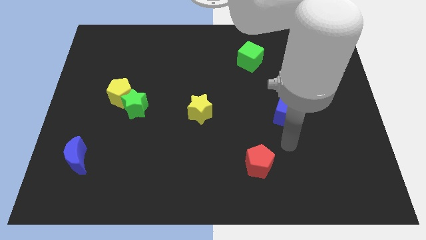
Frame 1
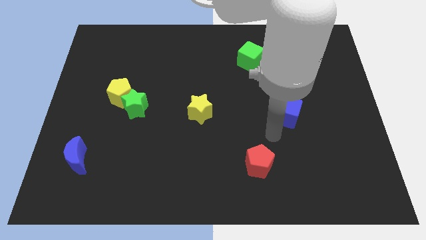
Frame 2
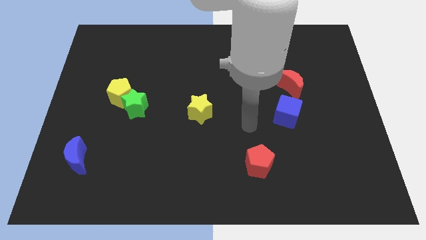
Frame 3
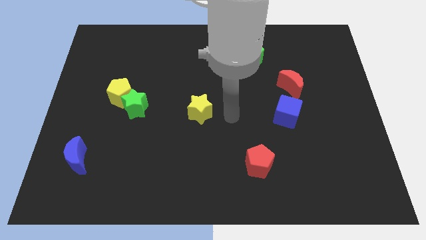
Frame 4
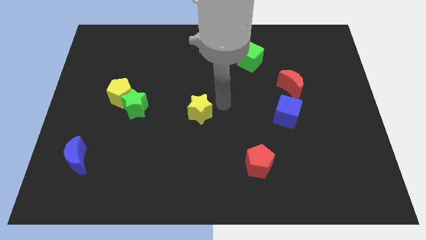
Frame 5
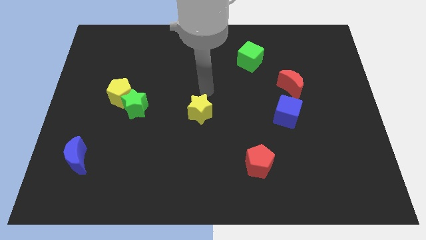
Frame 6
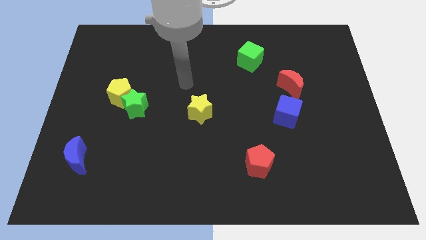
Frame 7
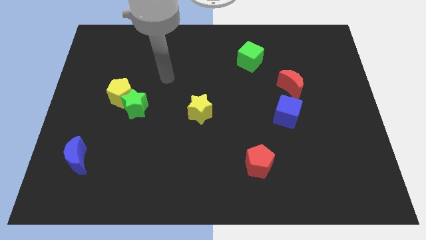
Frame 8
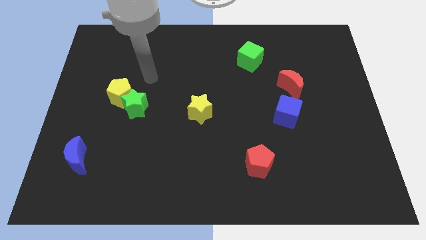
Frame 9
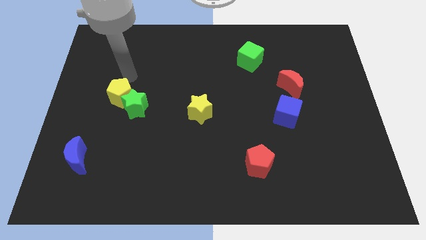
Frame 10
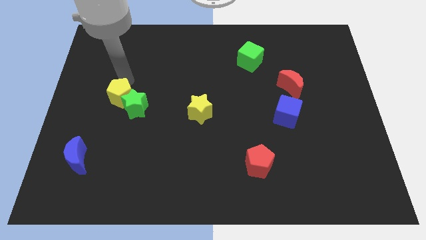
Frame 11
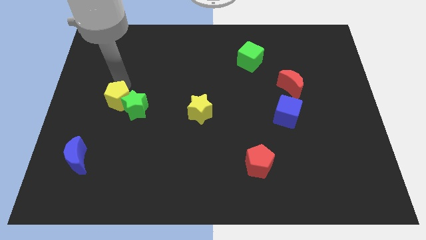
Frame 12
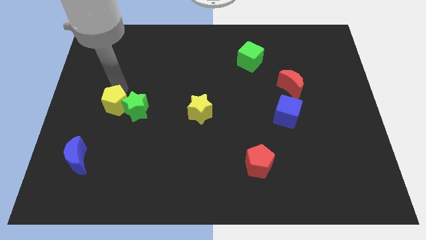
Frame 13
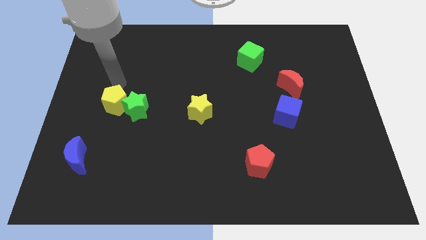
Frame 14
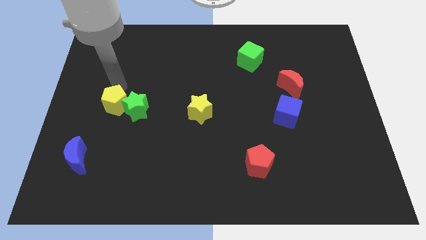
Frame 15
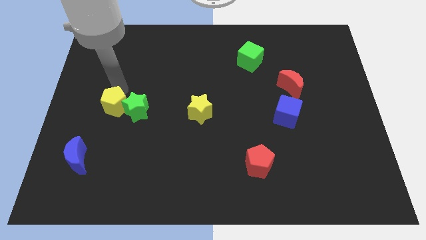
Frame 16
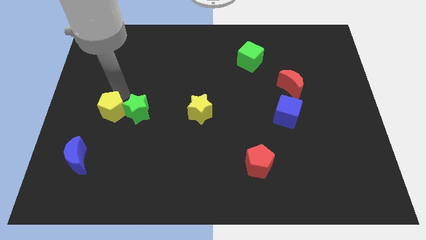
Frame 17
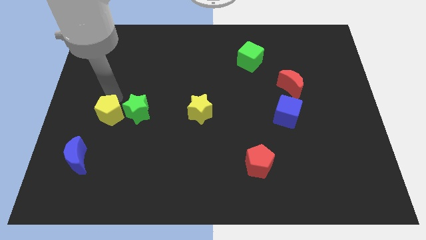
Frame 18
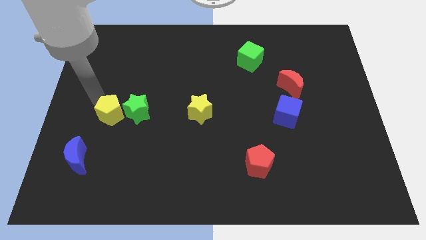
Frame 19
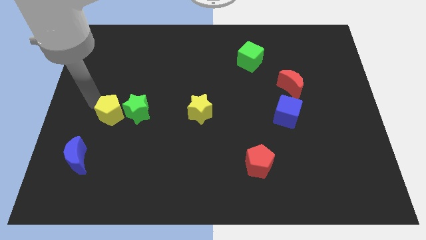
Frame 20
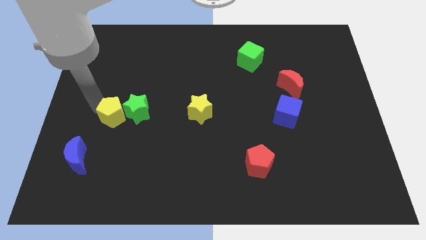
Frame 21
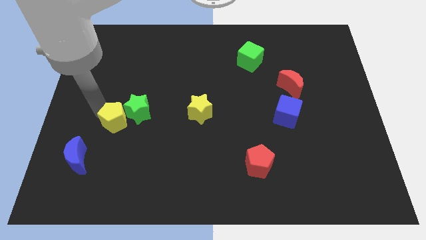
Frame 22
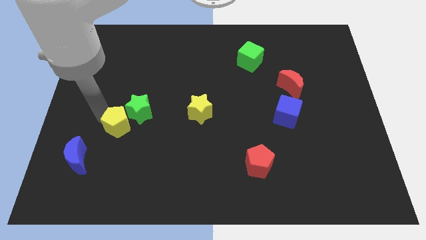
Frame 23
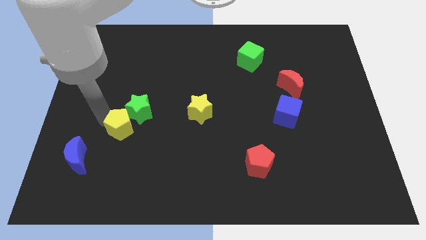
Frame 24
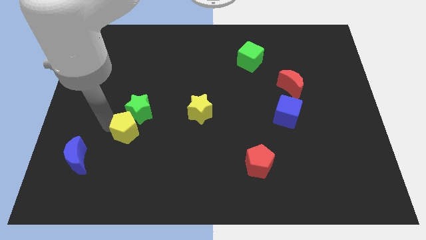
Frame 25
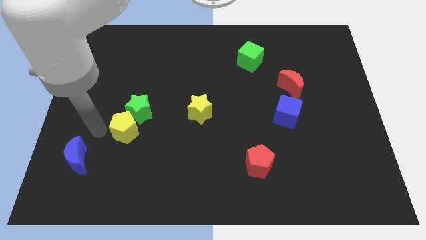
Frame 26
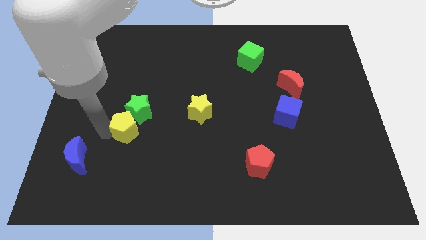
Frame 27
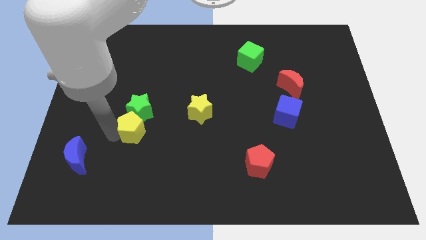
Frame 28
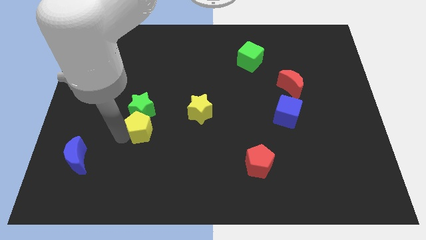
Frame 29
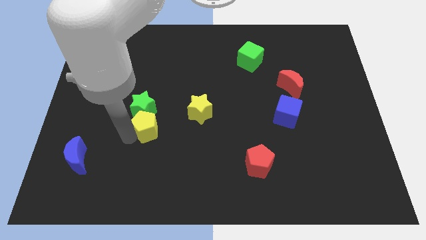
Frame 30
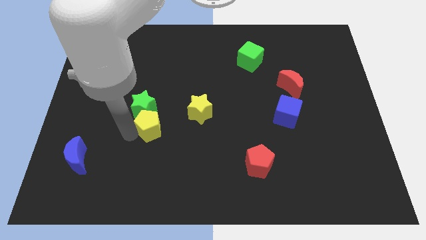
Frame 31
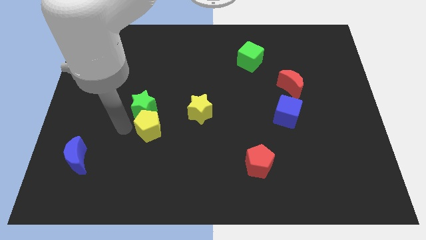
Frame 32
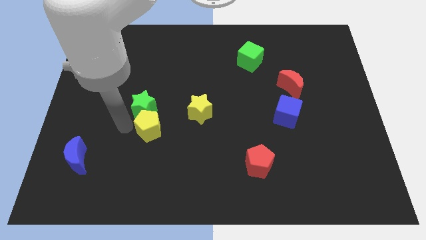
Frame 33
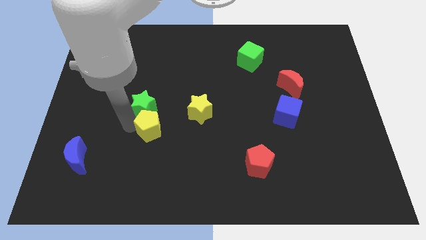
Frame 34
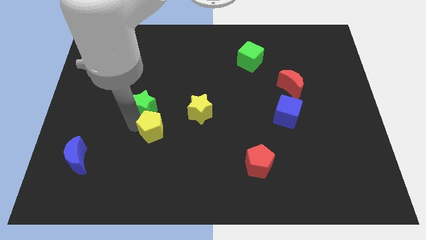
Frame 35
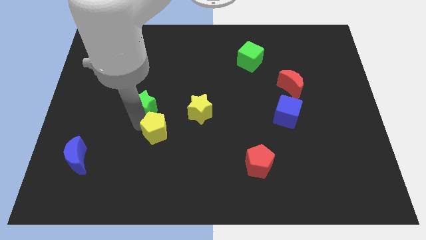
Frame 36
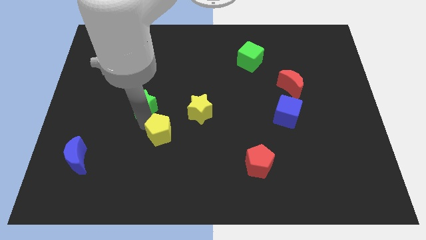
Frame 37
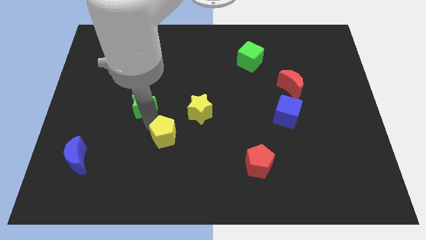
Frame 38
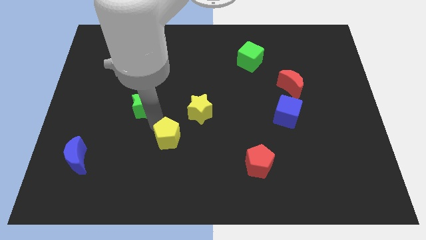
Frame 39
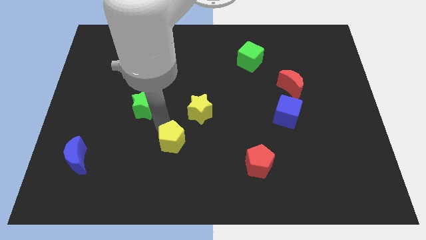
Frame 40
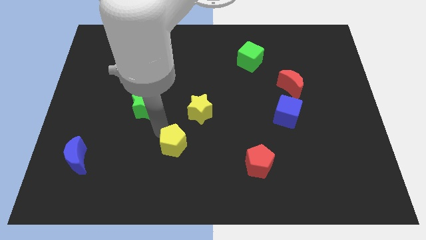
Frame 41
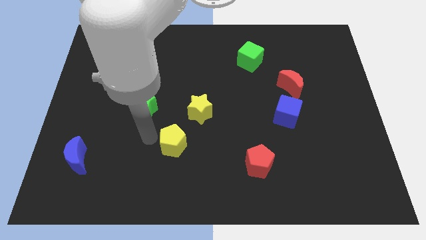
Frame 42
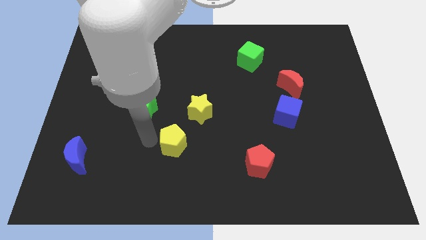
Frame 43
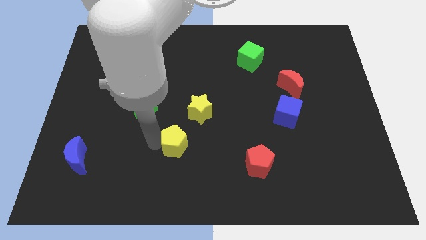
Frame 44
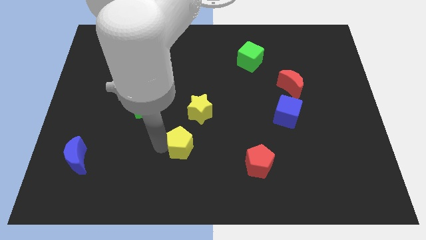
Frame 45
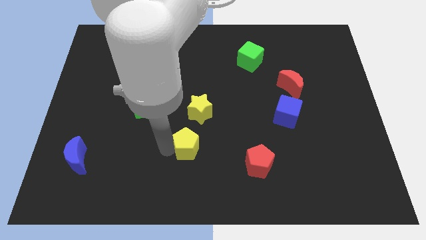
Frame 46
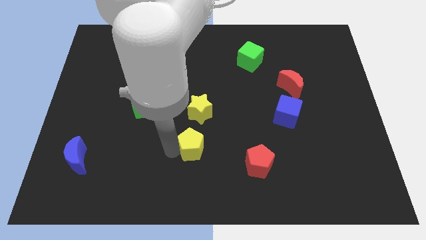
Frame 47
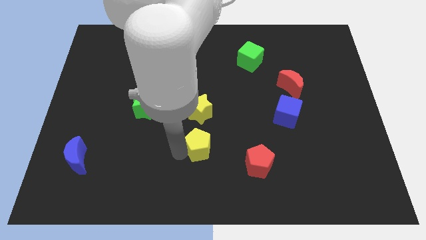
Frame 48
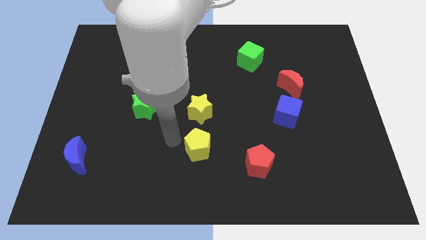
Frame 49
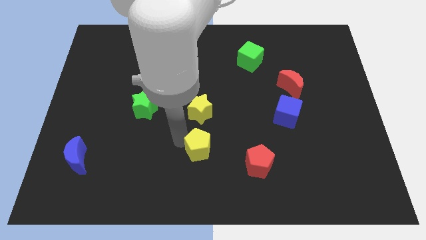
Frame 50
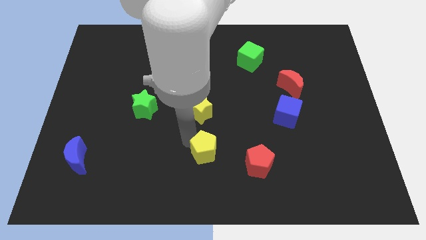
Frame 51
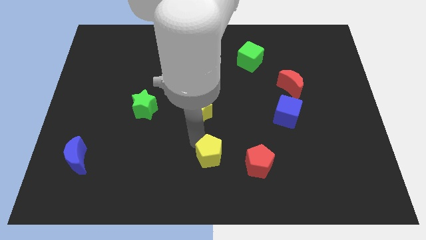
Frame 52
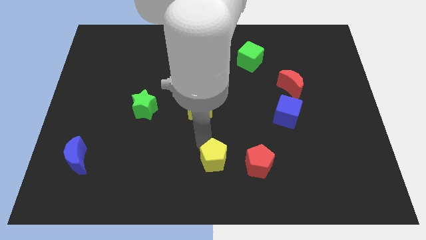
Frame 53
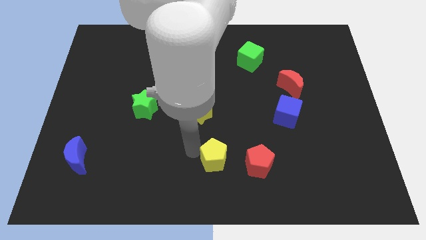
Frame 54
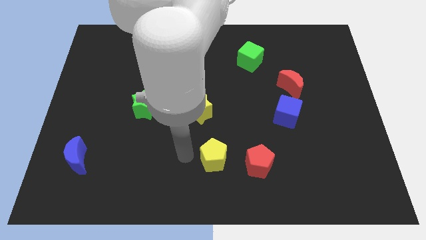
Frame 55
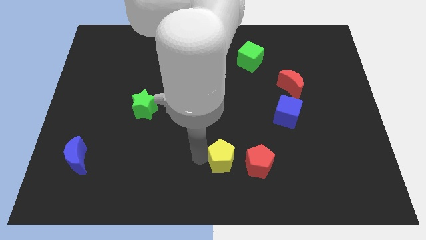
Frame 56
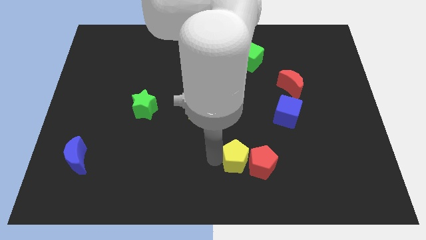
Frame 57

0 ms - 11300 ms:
put the yellow pentagon to the red pentagon
